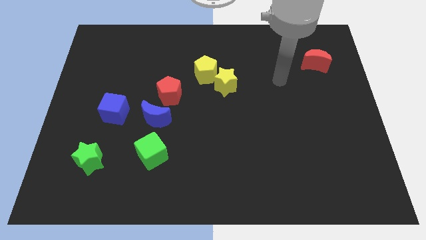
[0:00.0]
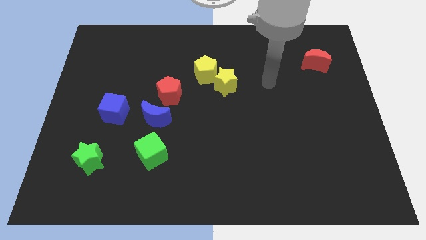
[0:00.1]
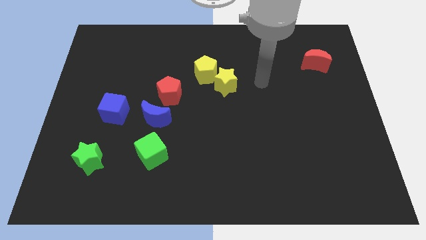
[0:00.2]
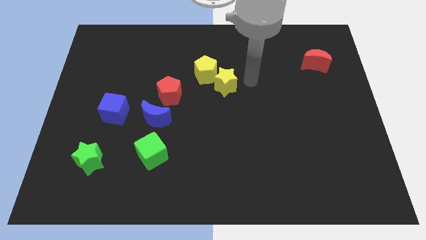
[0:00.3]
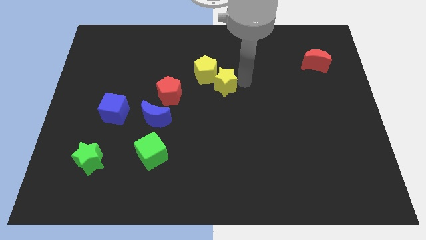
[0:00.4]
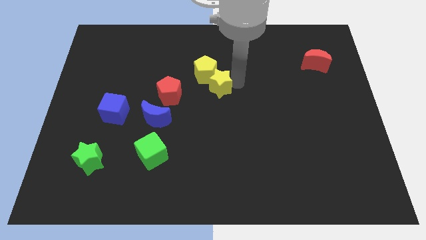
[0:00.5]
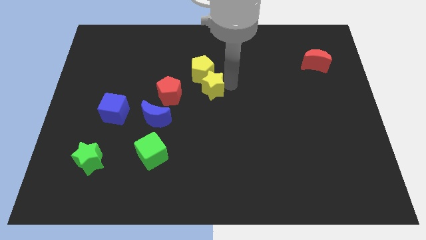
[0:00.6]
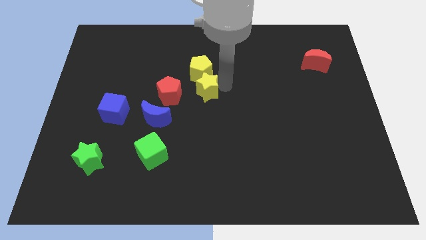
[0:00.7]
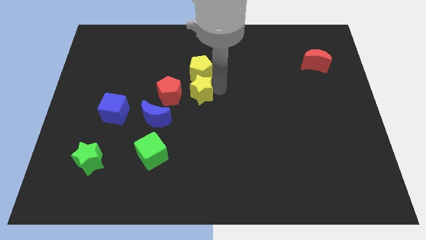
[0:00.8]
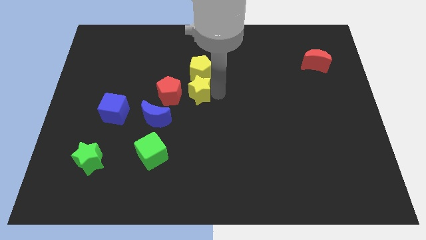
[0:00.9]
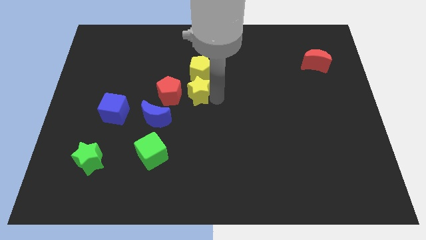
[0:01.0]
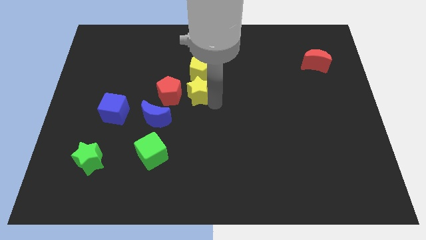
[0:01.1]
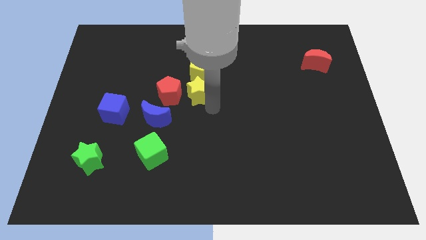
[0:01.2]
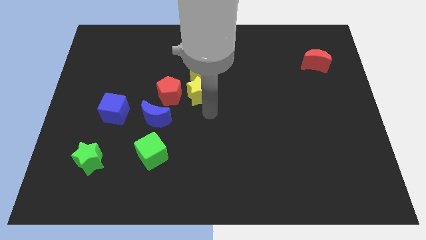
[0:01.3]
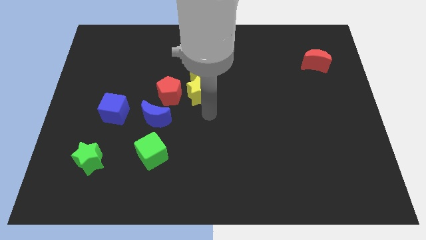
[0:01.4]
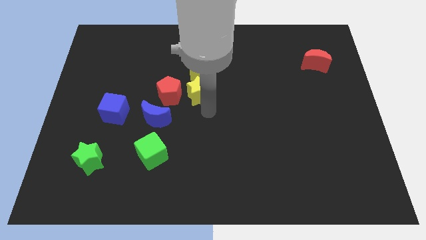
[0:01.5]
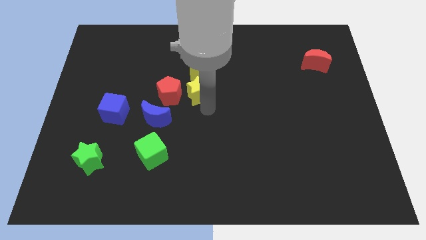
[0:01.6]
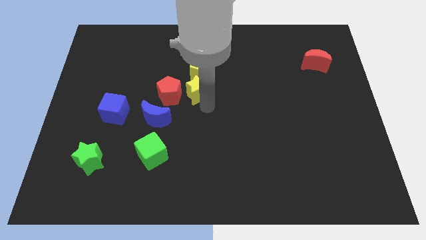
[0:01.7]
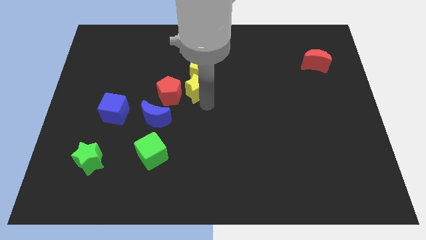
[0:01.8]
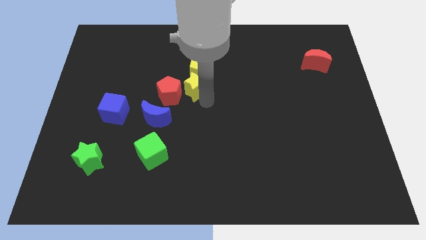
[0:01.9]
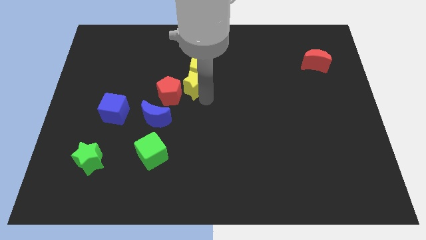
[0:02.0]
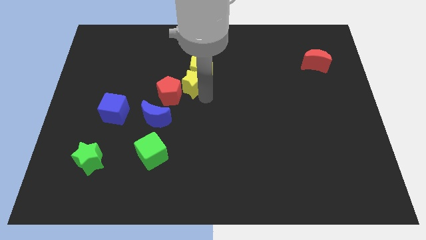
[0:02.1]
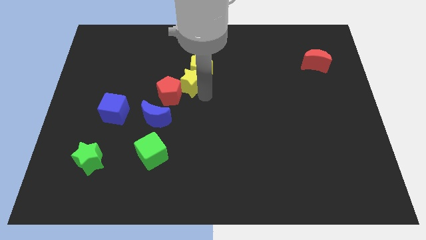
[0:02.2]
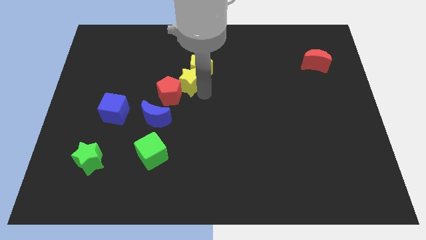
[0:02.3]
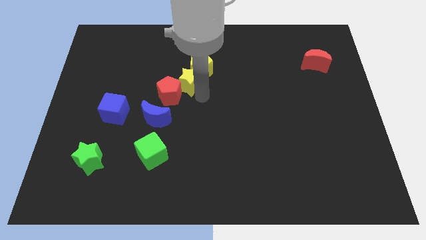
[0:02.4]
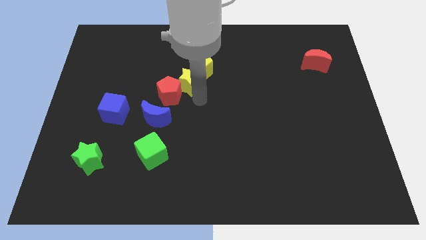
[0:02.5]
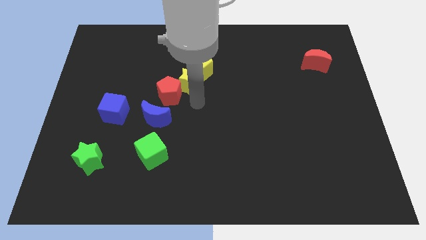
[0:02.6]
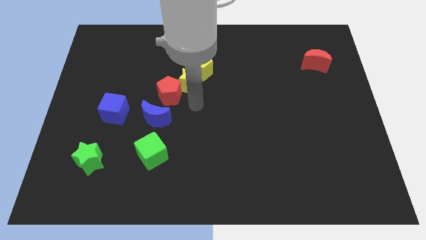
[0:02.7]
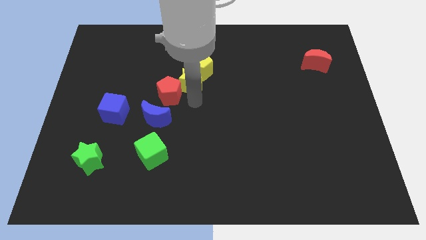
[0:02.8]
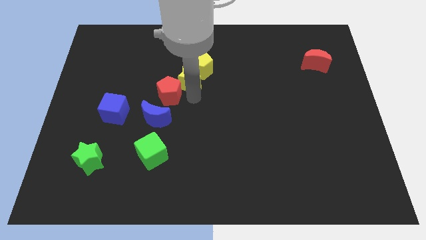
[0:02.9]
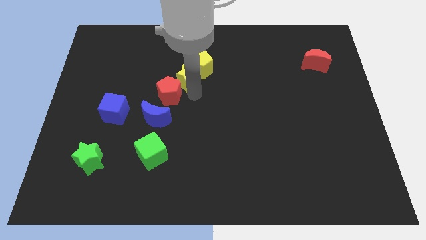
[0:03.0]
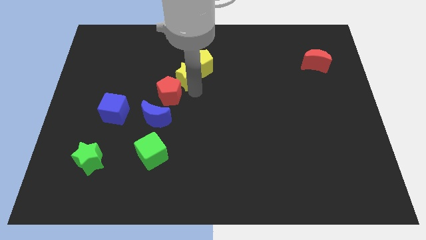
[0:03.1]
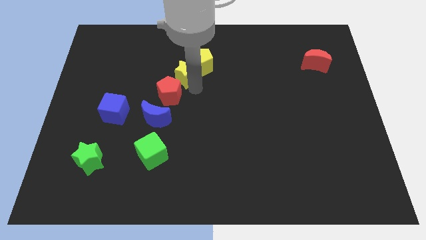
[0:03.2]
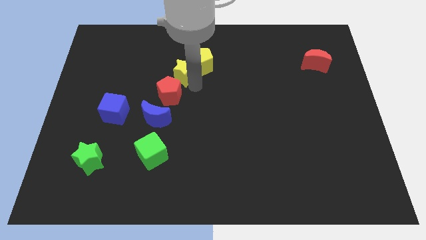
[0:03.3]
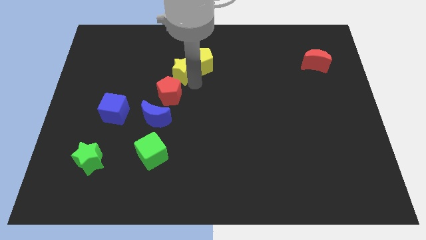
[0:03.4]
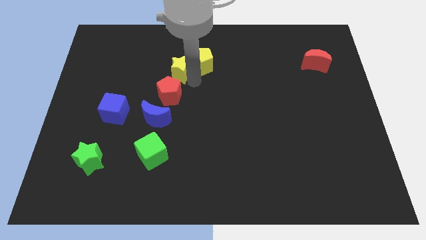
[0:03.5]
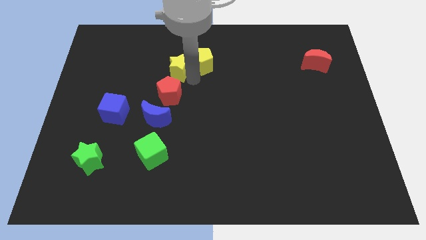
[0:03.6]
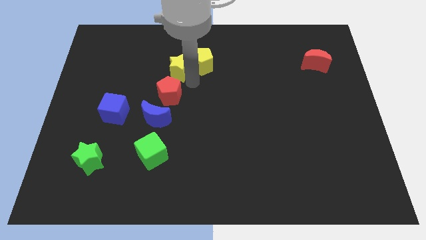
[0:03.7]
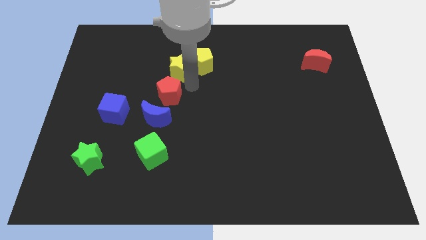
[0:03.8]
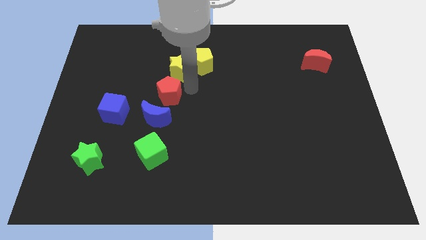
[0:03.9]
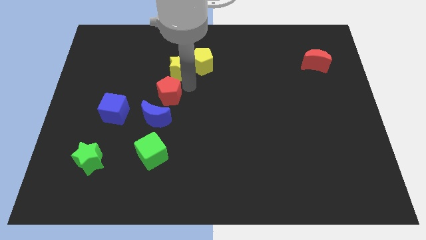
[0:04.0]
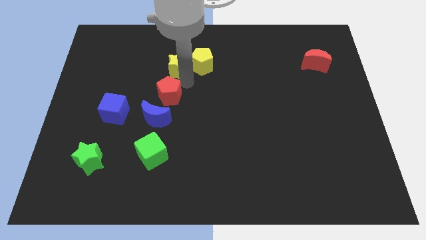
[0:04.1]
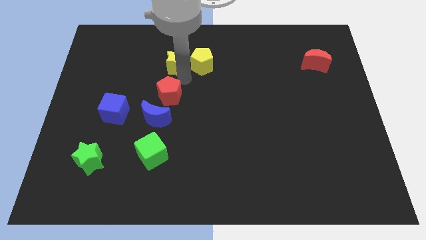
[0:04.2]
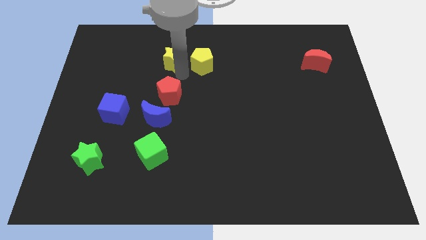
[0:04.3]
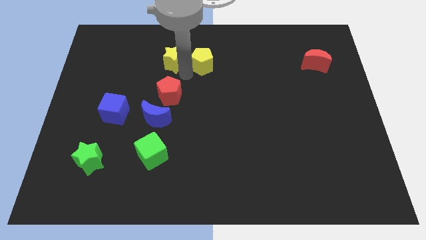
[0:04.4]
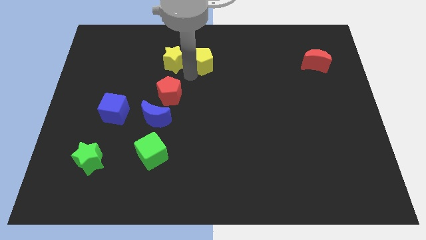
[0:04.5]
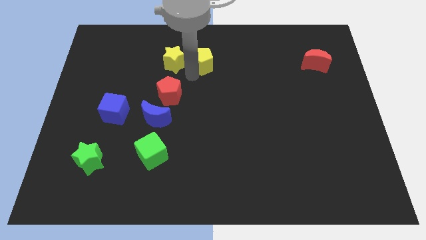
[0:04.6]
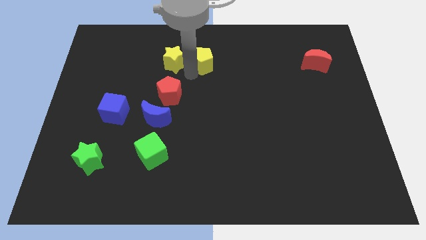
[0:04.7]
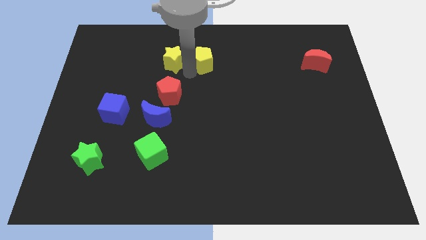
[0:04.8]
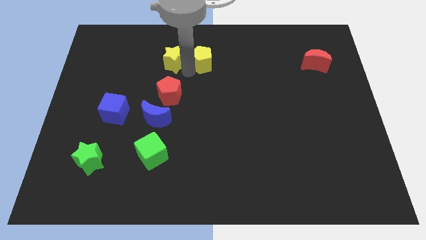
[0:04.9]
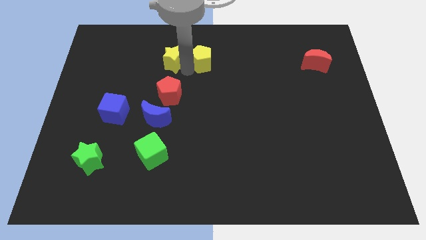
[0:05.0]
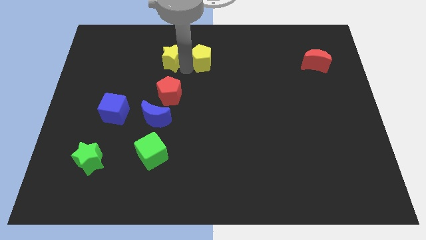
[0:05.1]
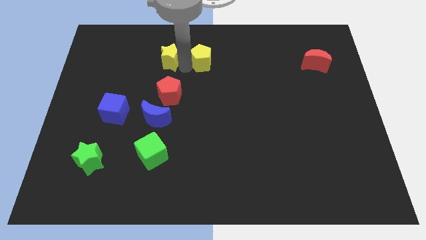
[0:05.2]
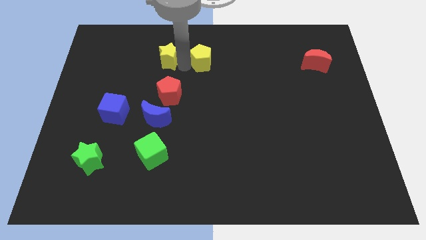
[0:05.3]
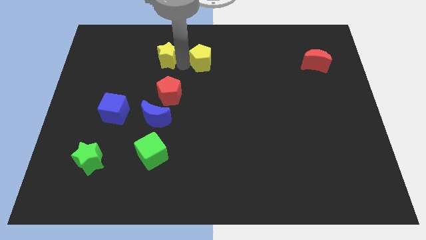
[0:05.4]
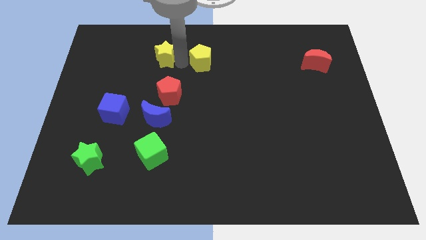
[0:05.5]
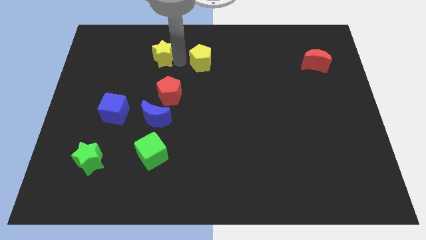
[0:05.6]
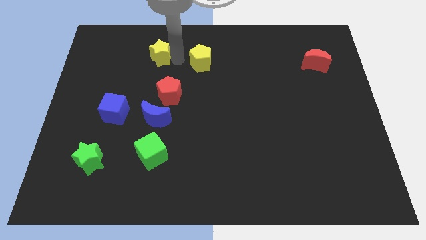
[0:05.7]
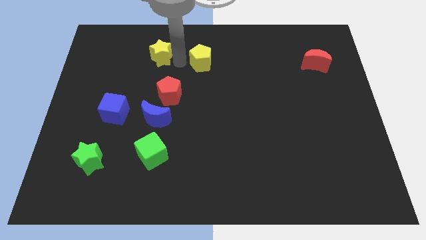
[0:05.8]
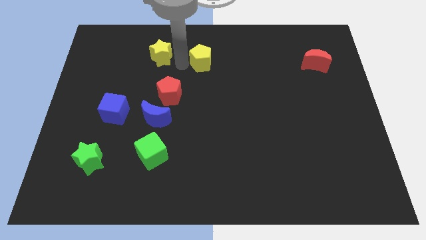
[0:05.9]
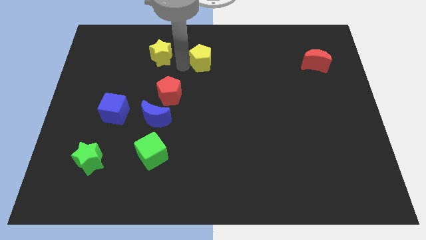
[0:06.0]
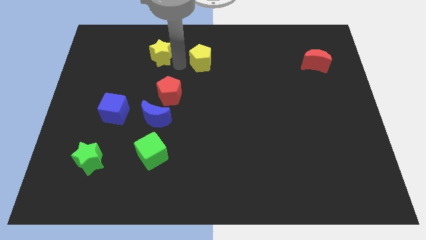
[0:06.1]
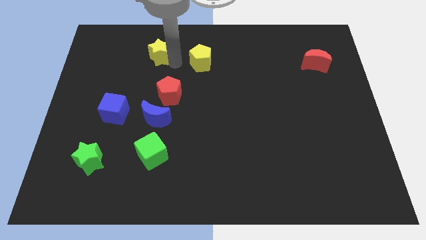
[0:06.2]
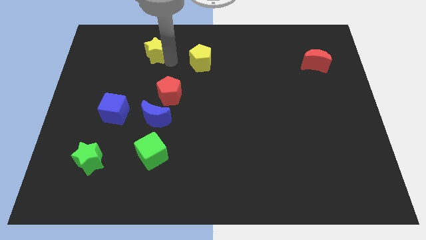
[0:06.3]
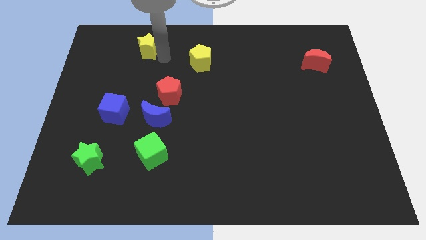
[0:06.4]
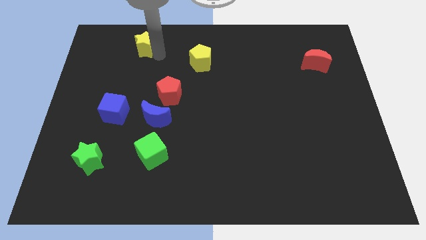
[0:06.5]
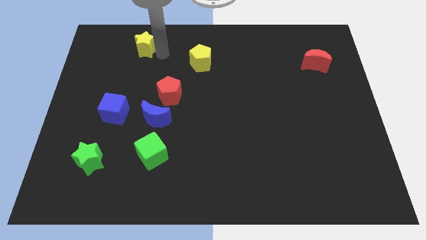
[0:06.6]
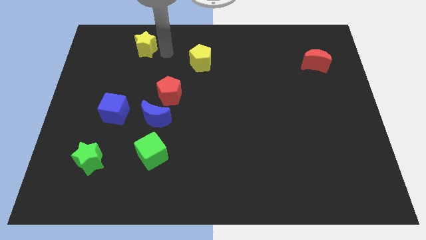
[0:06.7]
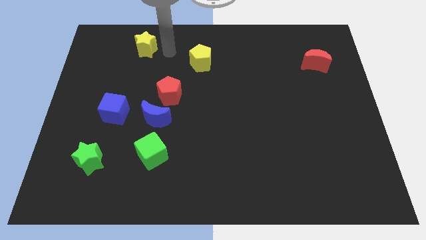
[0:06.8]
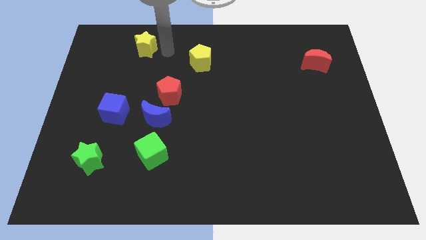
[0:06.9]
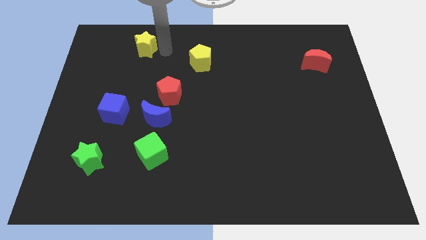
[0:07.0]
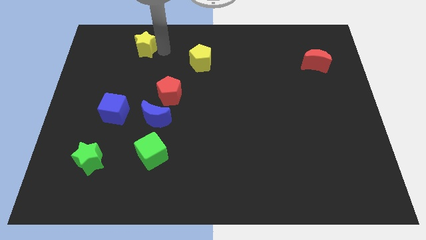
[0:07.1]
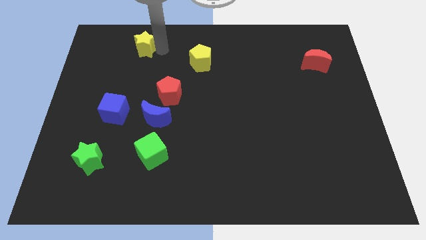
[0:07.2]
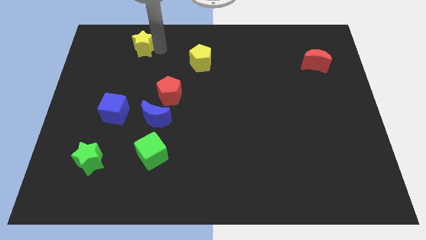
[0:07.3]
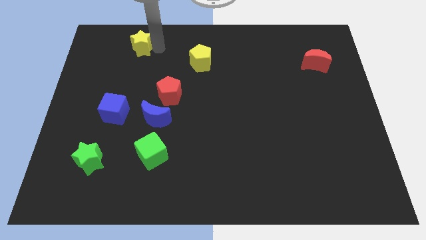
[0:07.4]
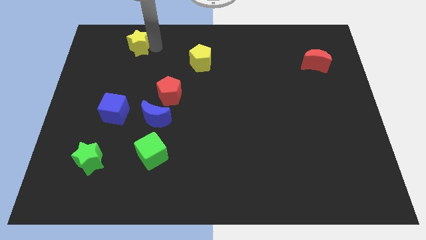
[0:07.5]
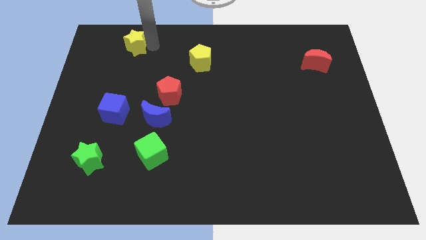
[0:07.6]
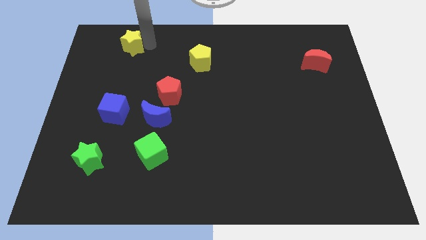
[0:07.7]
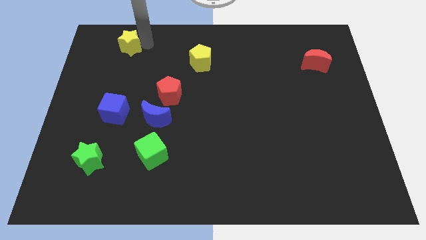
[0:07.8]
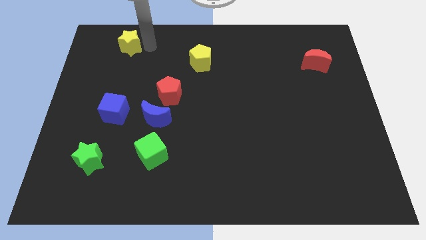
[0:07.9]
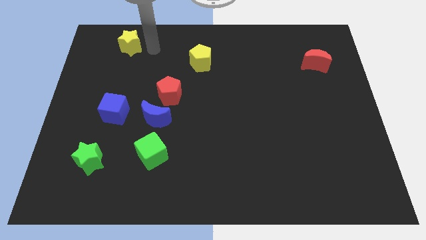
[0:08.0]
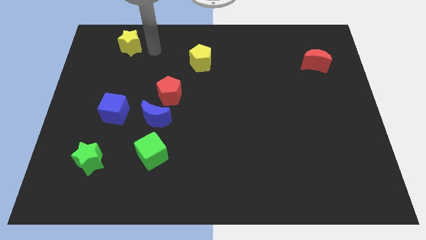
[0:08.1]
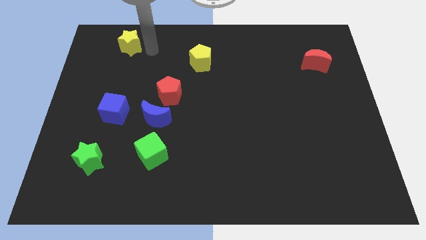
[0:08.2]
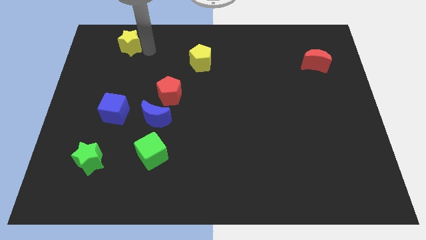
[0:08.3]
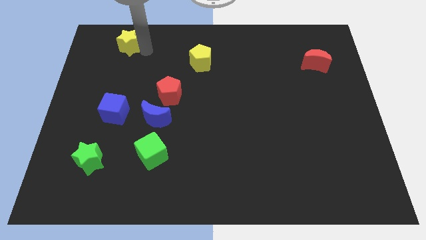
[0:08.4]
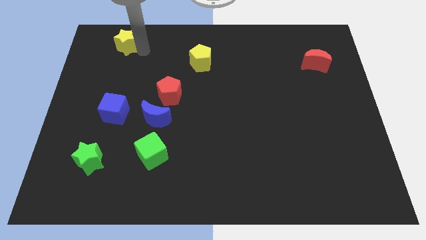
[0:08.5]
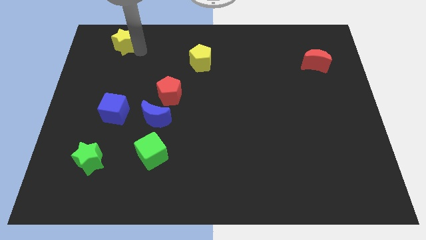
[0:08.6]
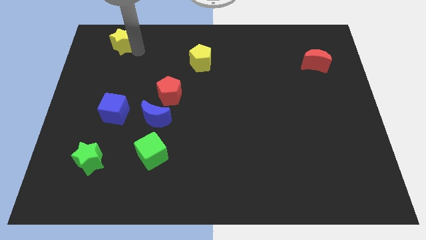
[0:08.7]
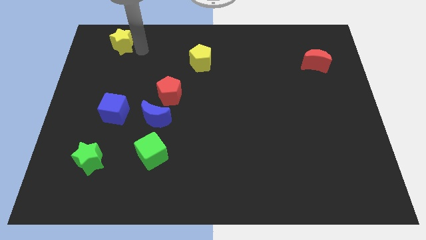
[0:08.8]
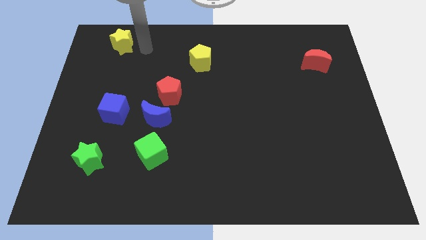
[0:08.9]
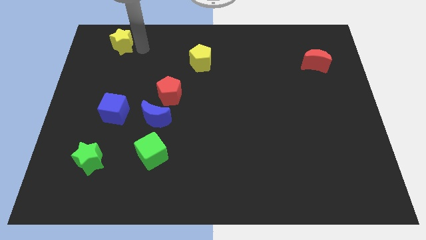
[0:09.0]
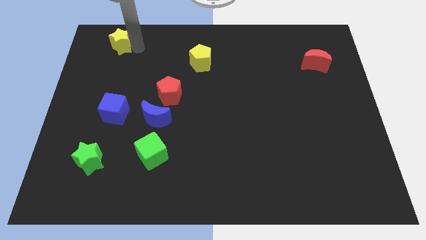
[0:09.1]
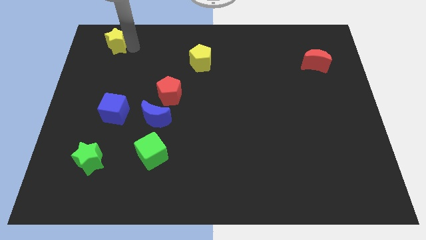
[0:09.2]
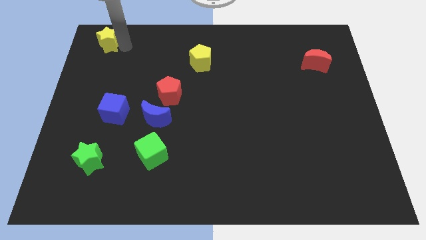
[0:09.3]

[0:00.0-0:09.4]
slide the yellow star to the upper left corner
